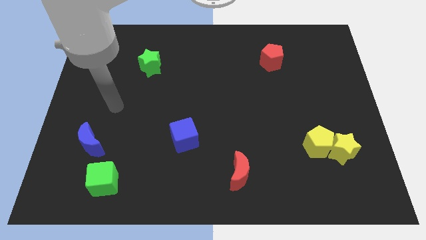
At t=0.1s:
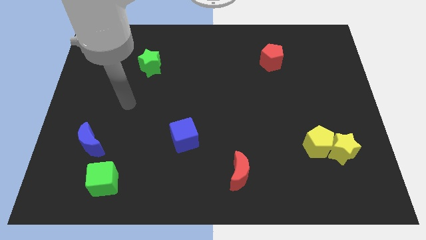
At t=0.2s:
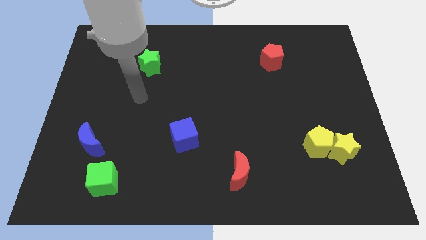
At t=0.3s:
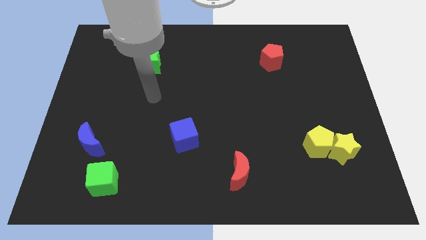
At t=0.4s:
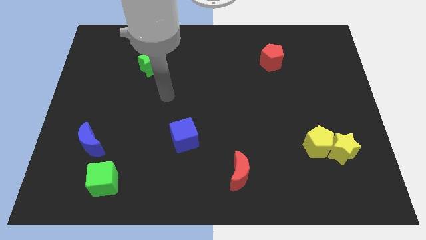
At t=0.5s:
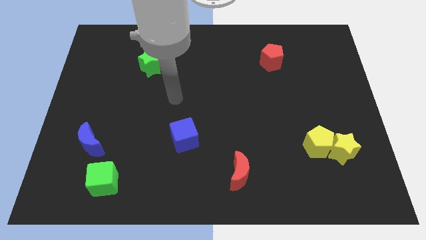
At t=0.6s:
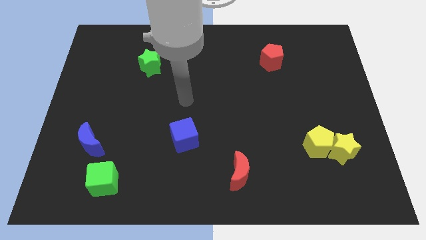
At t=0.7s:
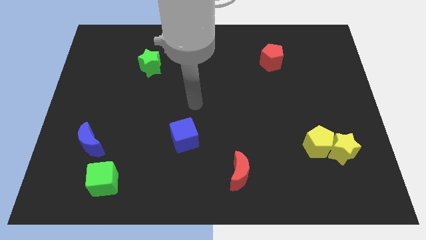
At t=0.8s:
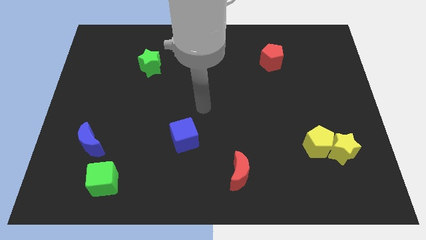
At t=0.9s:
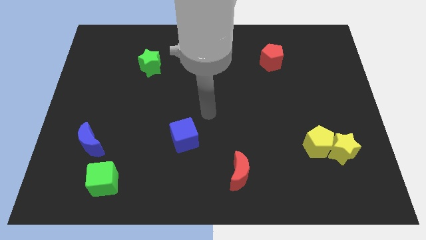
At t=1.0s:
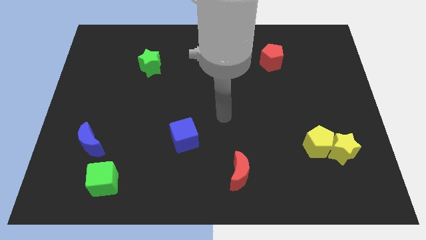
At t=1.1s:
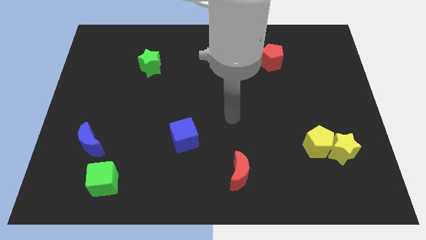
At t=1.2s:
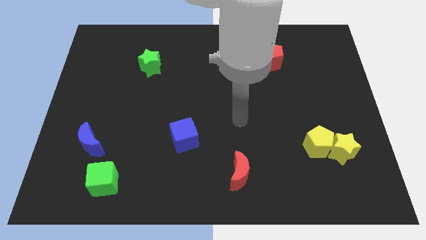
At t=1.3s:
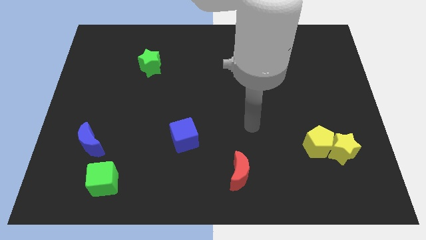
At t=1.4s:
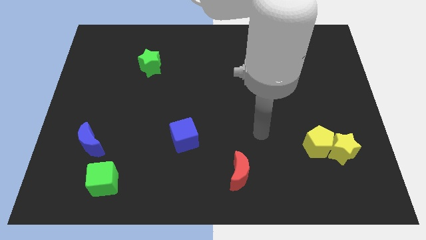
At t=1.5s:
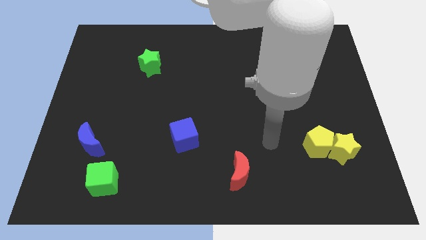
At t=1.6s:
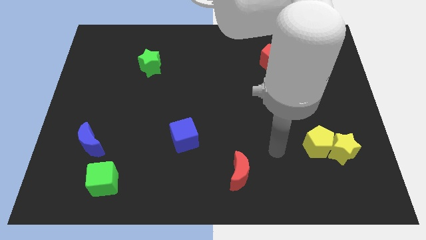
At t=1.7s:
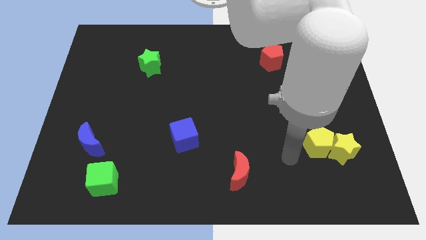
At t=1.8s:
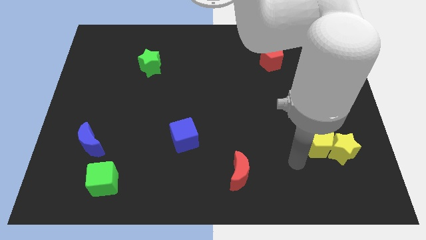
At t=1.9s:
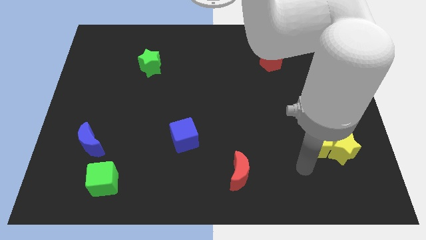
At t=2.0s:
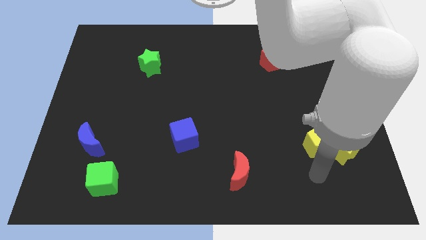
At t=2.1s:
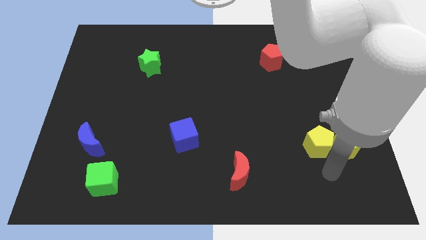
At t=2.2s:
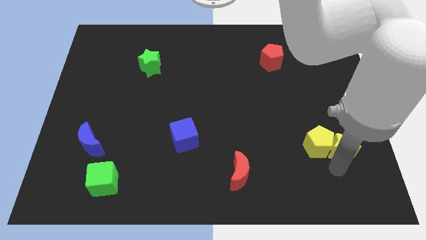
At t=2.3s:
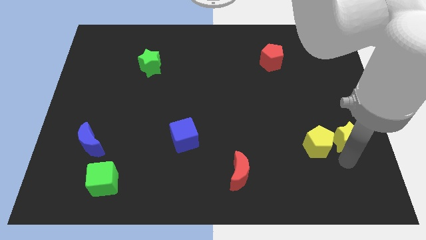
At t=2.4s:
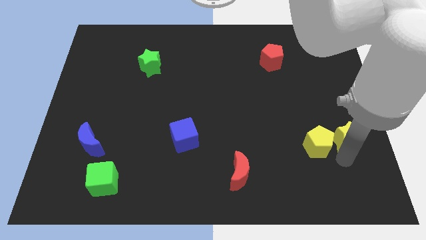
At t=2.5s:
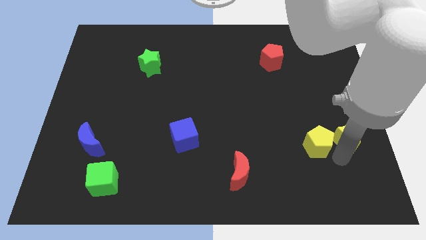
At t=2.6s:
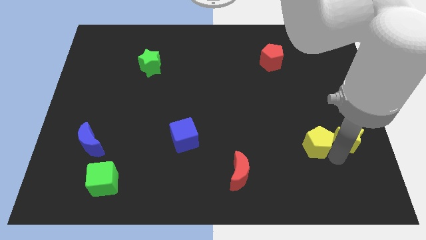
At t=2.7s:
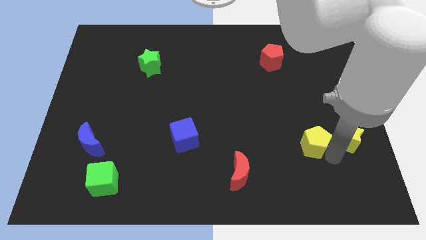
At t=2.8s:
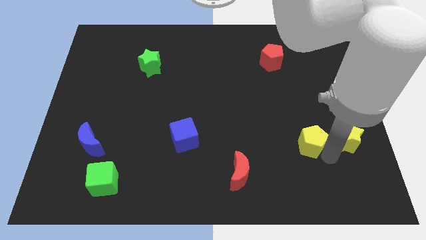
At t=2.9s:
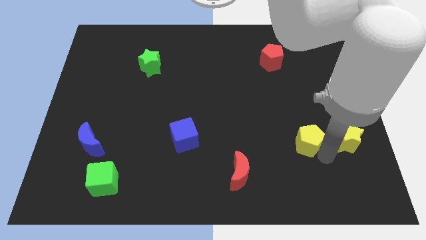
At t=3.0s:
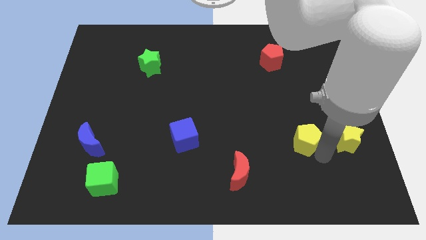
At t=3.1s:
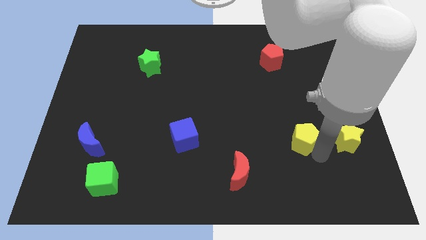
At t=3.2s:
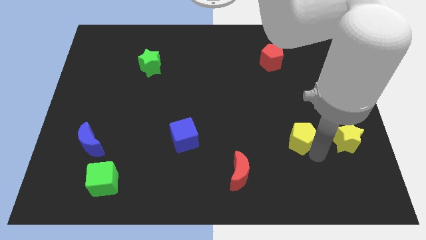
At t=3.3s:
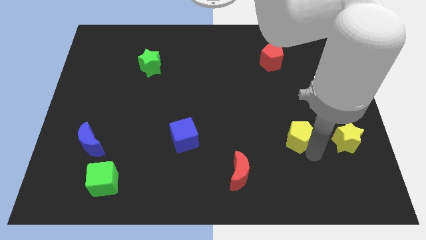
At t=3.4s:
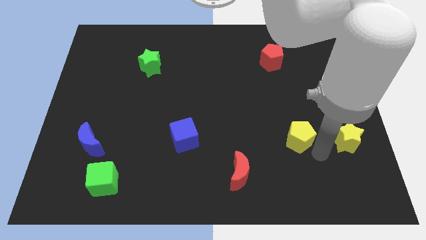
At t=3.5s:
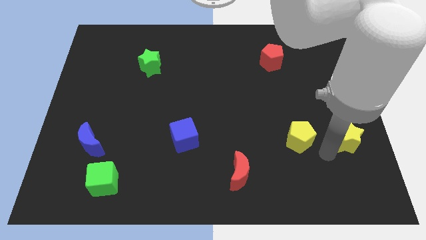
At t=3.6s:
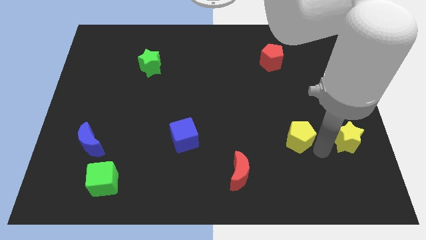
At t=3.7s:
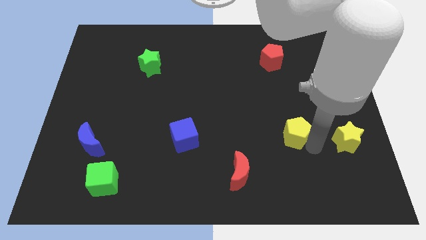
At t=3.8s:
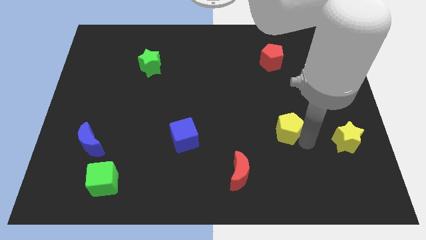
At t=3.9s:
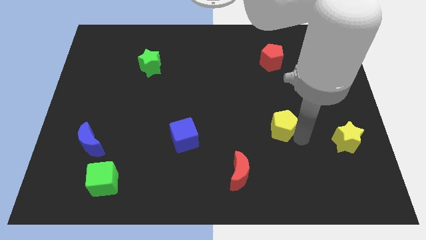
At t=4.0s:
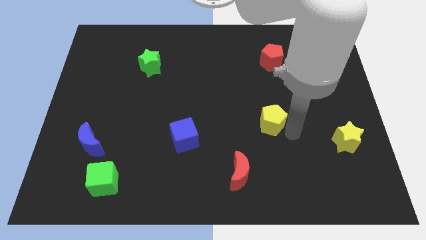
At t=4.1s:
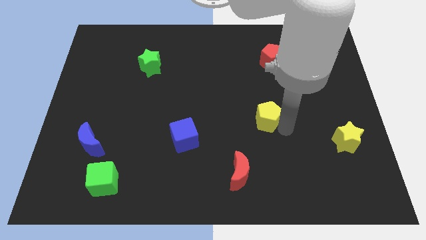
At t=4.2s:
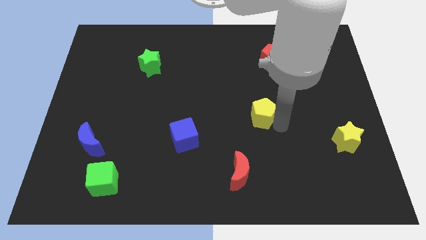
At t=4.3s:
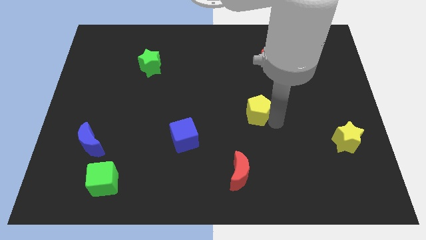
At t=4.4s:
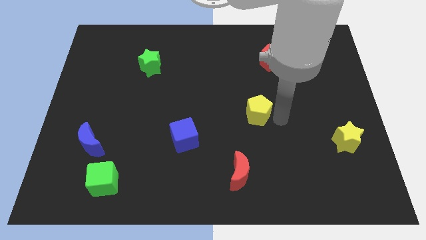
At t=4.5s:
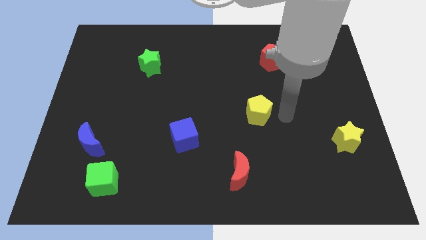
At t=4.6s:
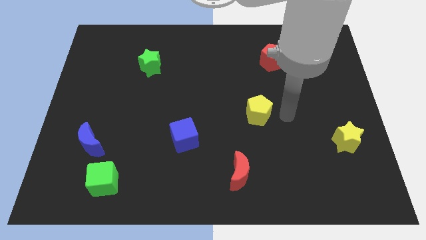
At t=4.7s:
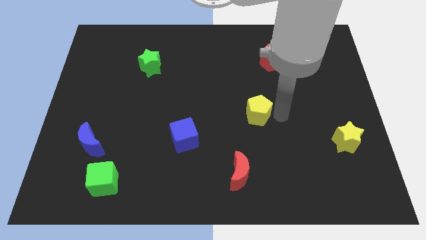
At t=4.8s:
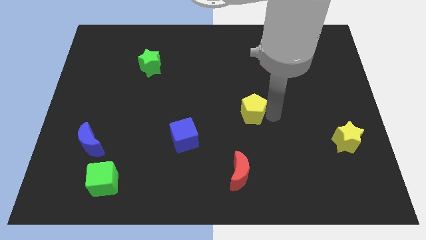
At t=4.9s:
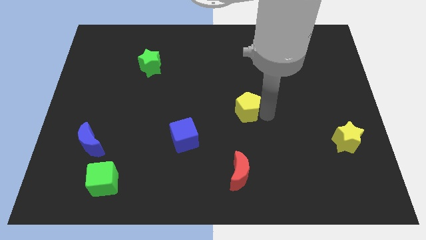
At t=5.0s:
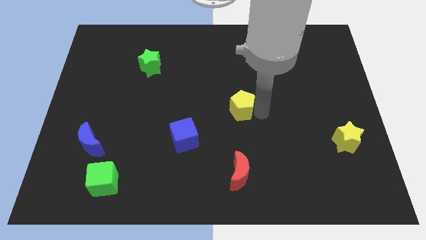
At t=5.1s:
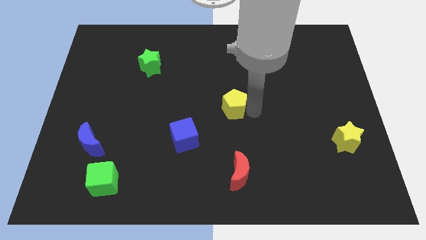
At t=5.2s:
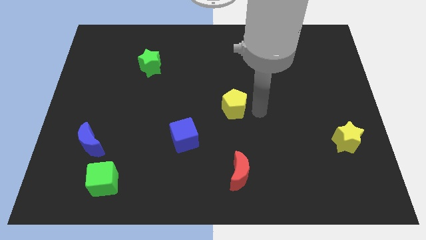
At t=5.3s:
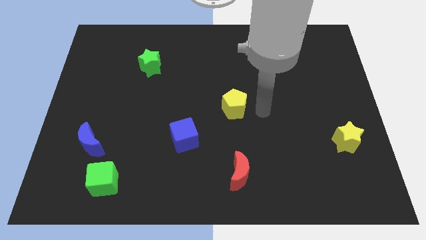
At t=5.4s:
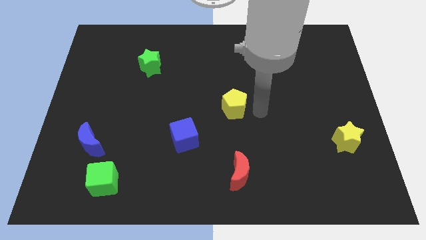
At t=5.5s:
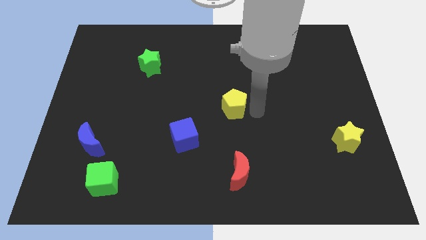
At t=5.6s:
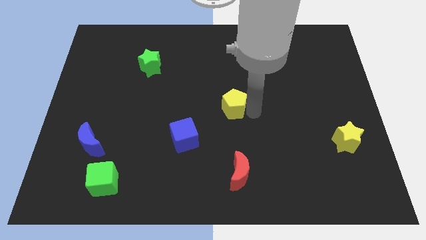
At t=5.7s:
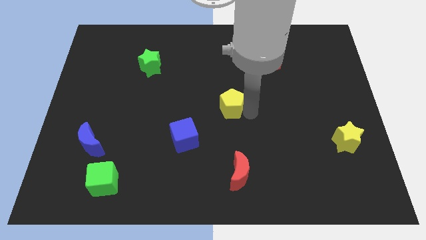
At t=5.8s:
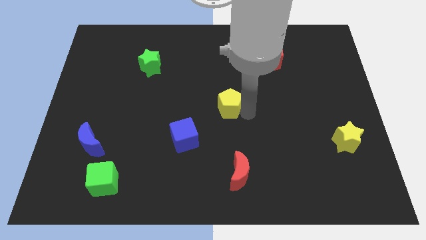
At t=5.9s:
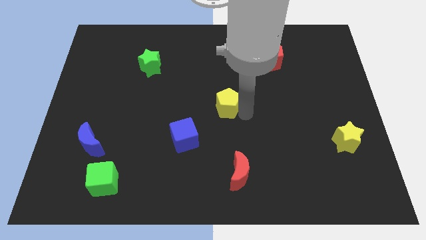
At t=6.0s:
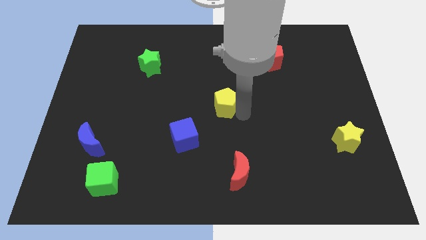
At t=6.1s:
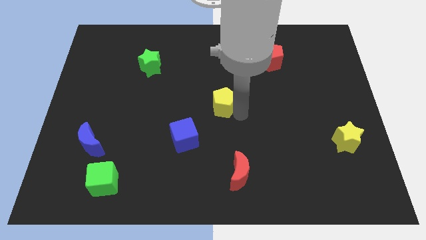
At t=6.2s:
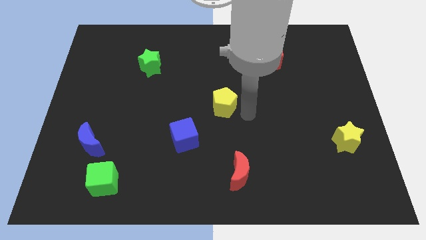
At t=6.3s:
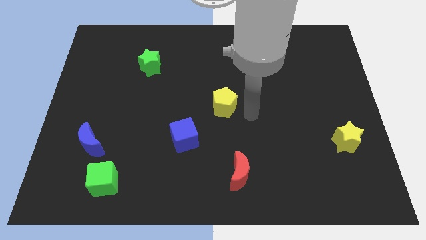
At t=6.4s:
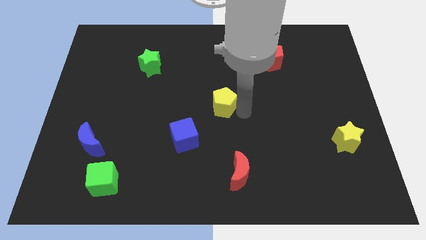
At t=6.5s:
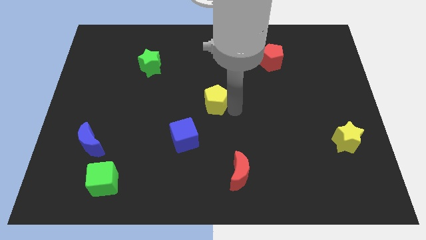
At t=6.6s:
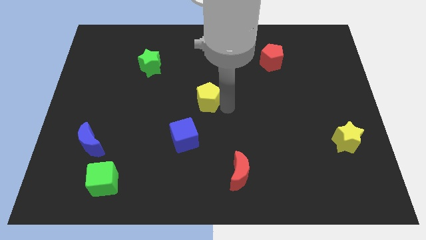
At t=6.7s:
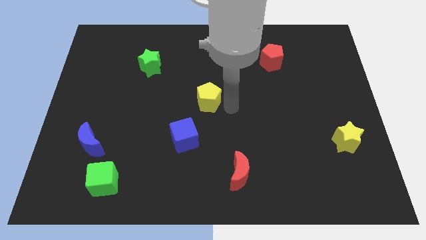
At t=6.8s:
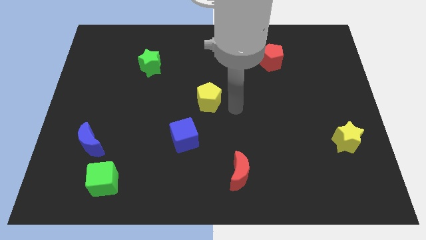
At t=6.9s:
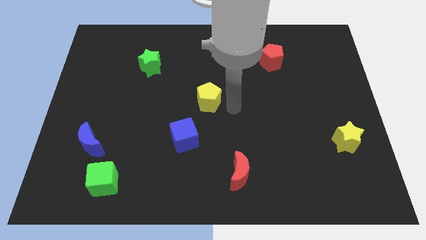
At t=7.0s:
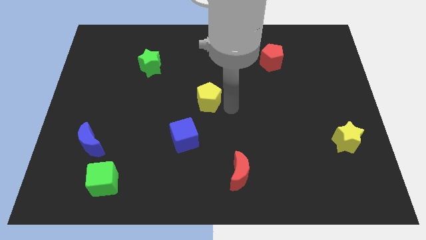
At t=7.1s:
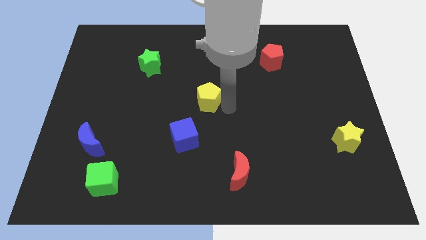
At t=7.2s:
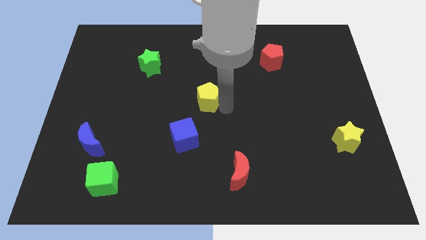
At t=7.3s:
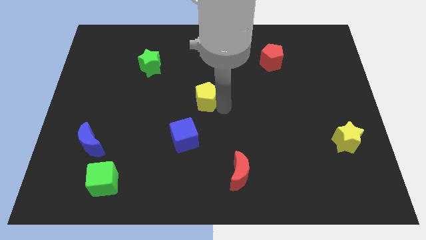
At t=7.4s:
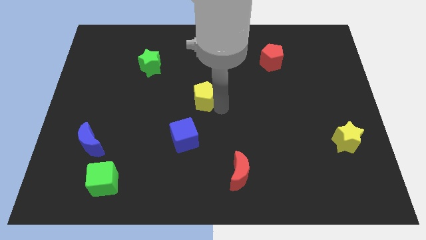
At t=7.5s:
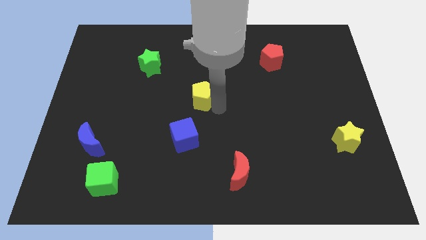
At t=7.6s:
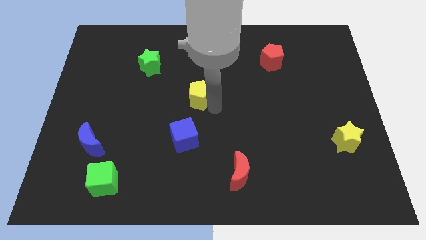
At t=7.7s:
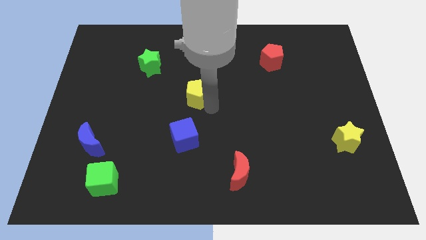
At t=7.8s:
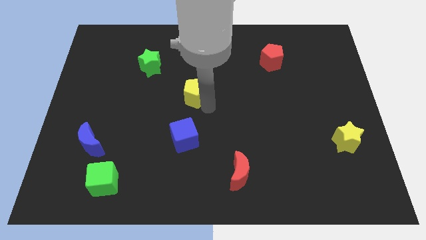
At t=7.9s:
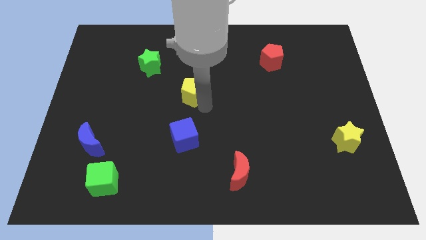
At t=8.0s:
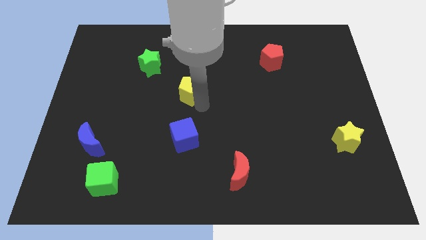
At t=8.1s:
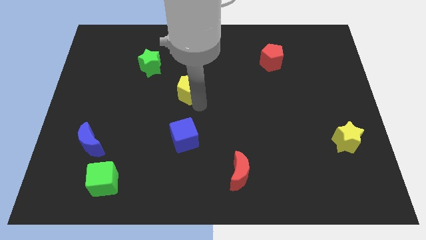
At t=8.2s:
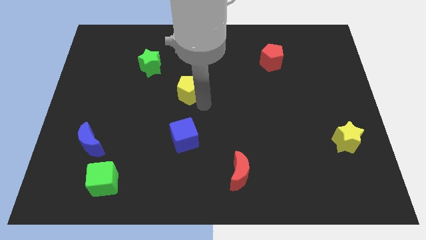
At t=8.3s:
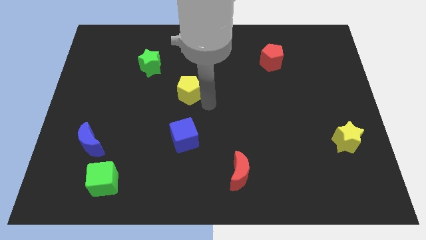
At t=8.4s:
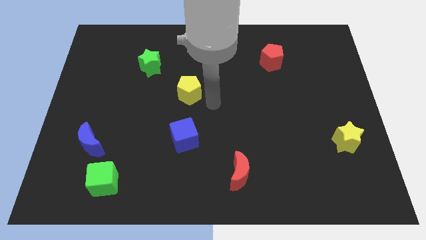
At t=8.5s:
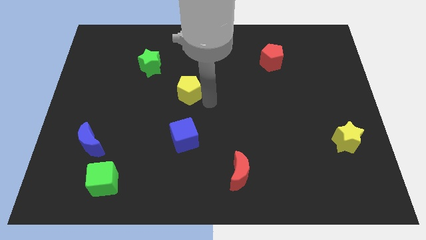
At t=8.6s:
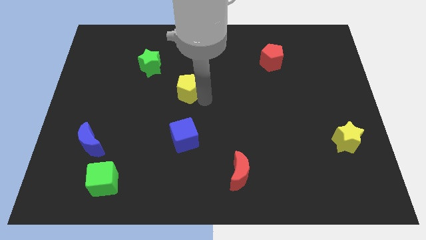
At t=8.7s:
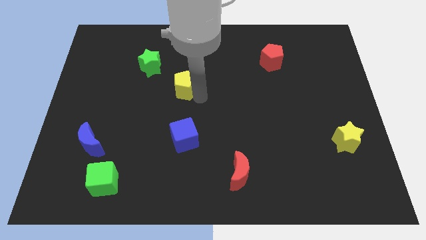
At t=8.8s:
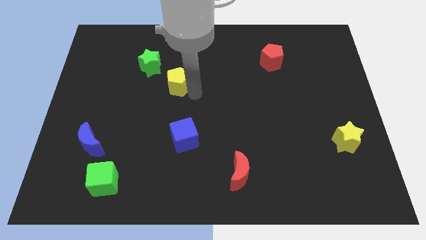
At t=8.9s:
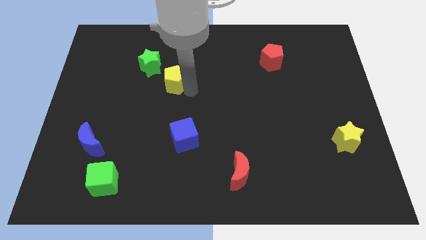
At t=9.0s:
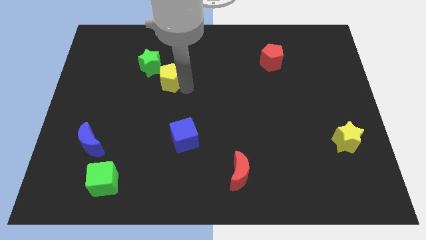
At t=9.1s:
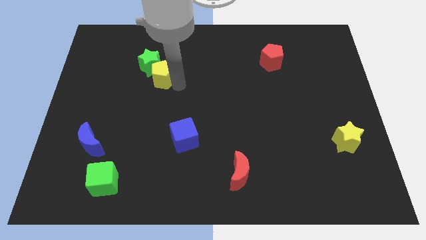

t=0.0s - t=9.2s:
move the yellow pentagon towards the green star
